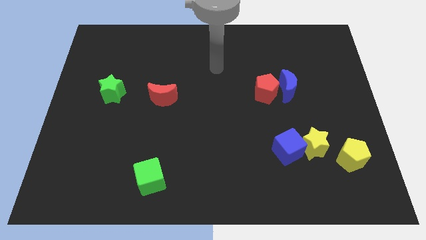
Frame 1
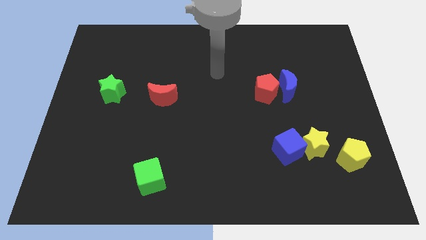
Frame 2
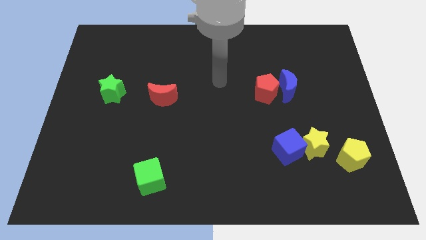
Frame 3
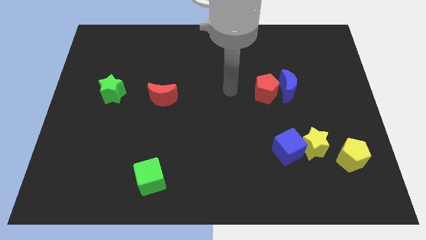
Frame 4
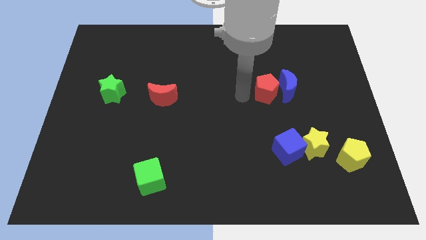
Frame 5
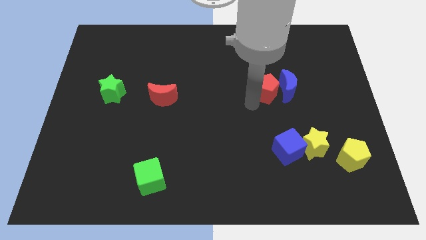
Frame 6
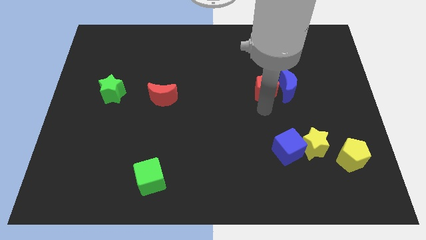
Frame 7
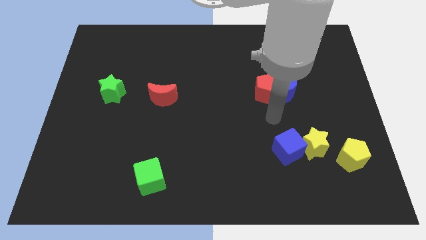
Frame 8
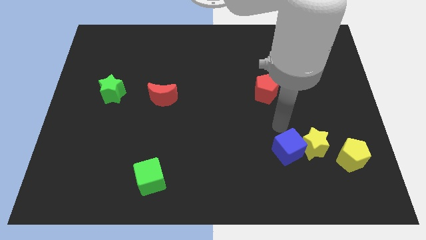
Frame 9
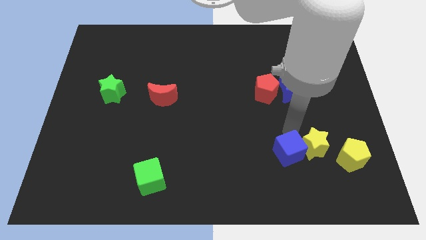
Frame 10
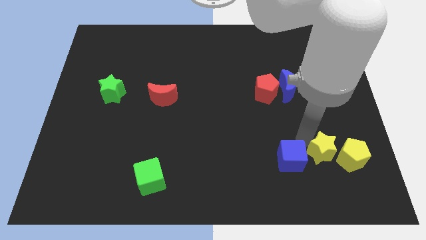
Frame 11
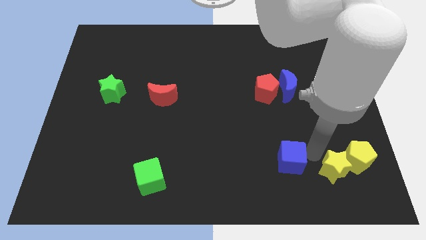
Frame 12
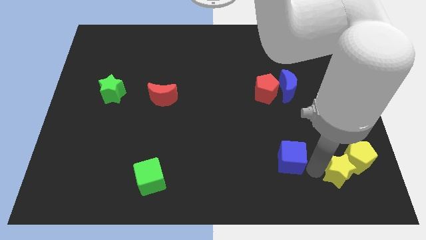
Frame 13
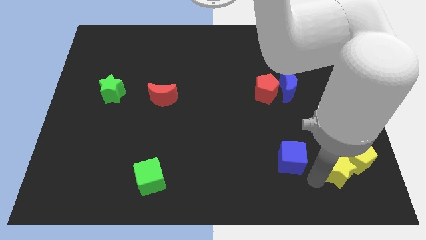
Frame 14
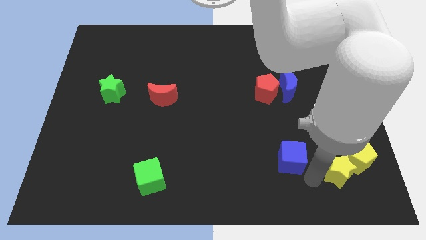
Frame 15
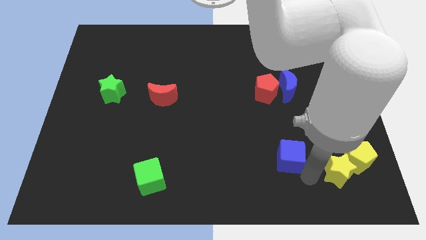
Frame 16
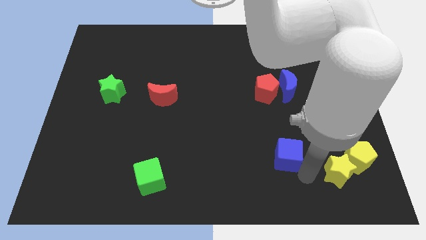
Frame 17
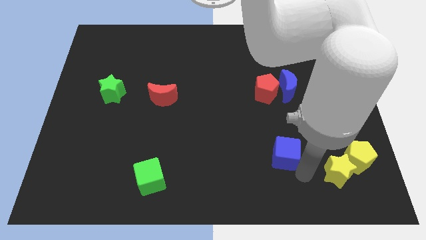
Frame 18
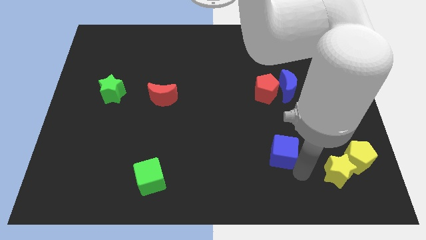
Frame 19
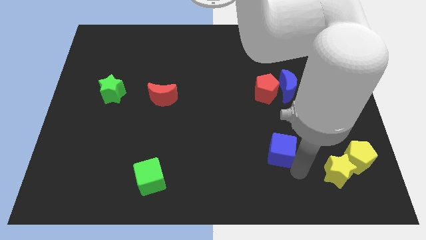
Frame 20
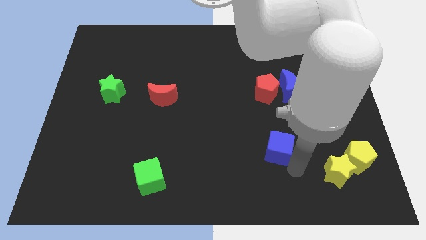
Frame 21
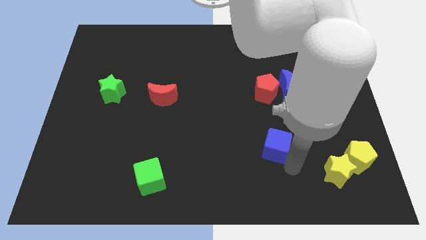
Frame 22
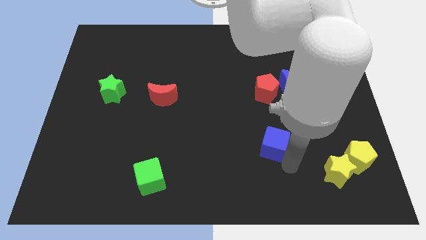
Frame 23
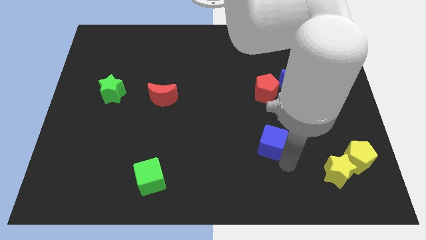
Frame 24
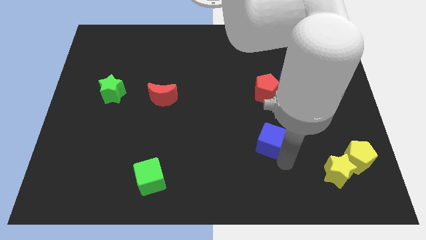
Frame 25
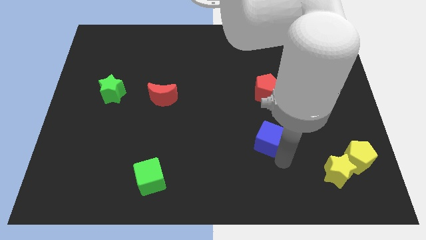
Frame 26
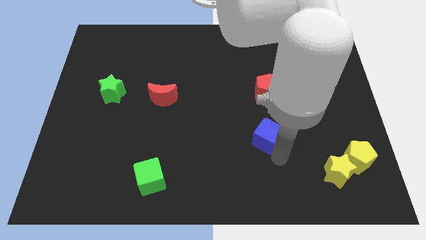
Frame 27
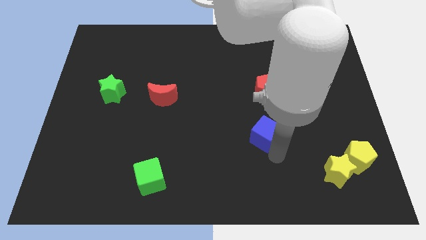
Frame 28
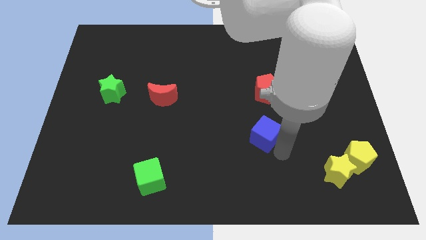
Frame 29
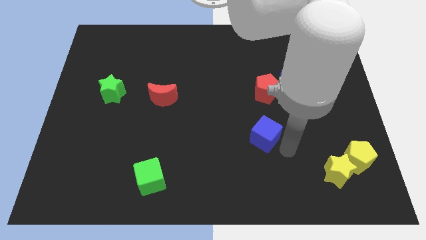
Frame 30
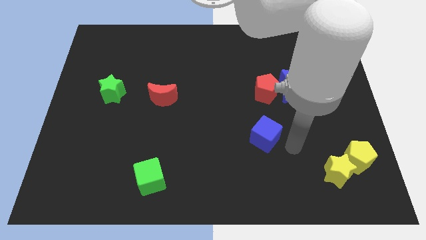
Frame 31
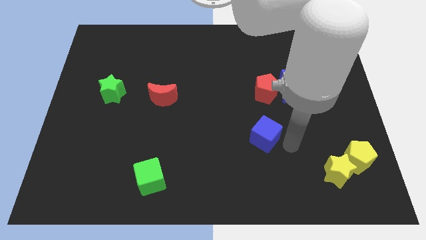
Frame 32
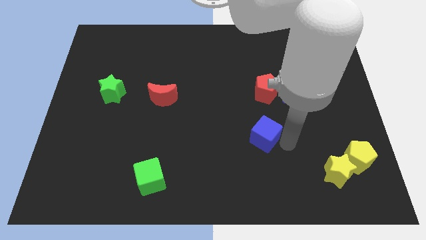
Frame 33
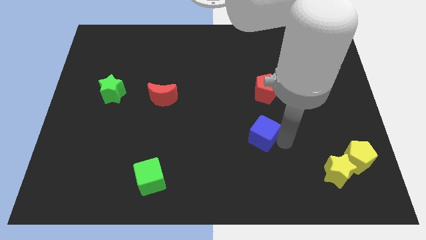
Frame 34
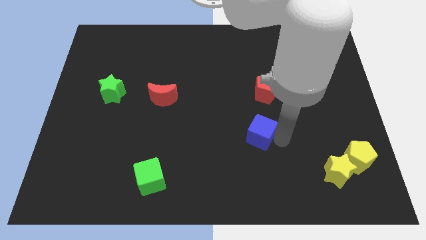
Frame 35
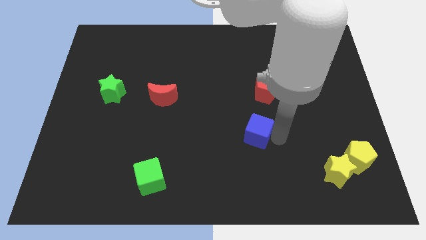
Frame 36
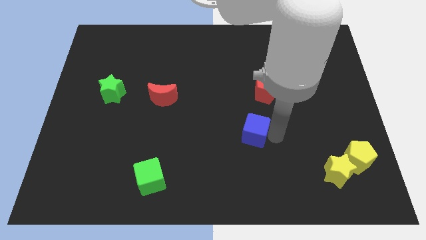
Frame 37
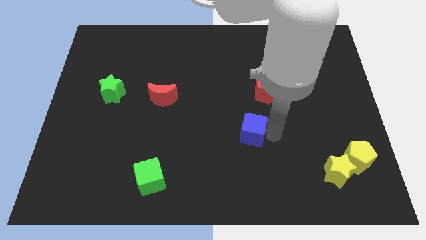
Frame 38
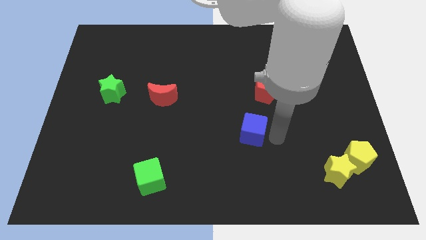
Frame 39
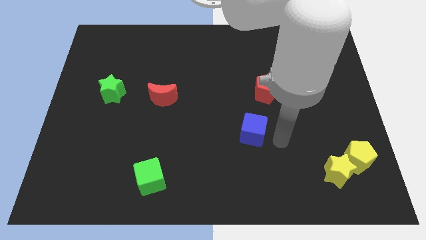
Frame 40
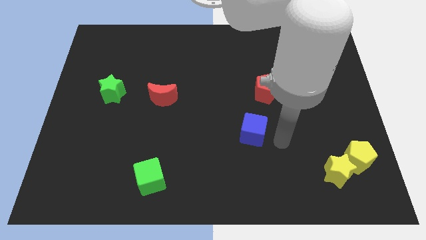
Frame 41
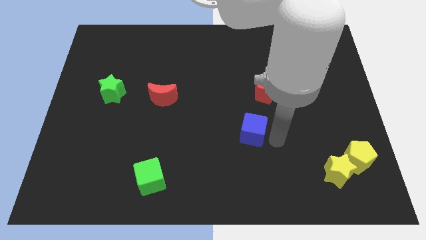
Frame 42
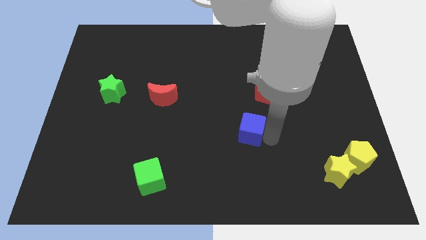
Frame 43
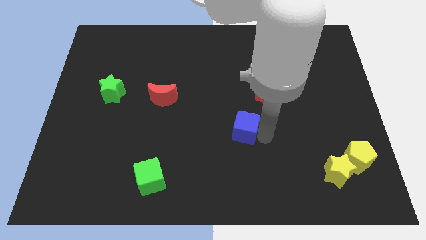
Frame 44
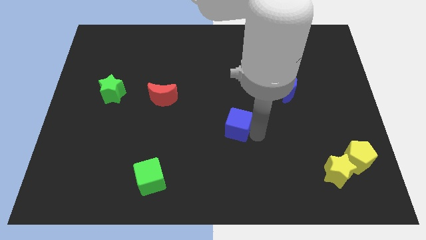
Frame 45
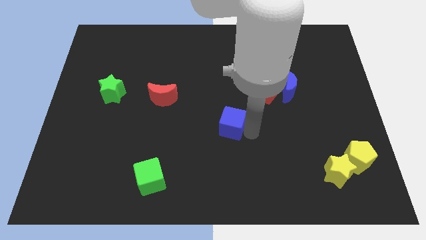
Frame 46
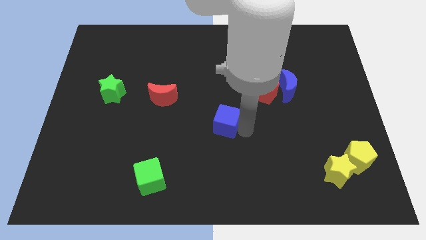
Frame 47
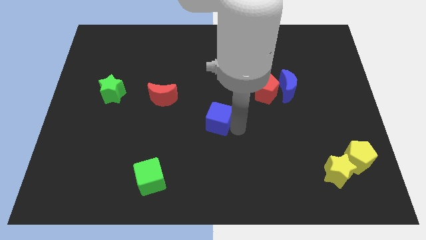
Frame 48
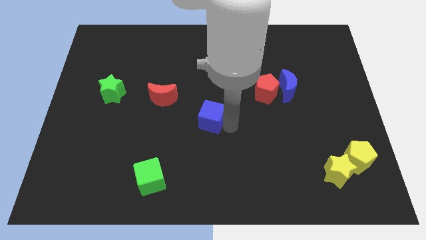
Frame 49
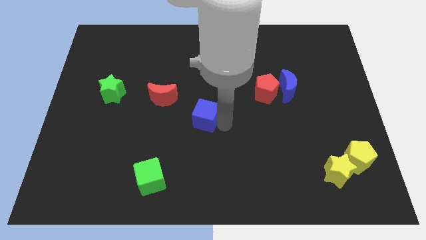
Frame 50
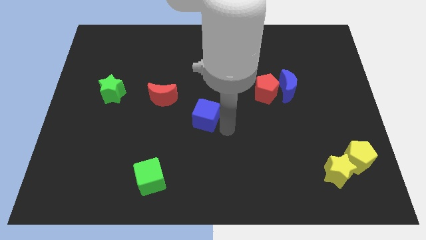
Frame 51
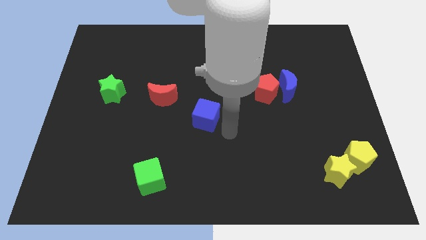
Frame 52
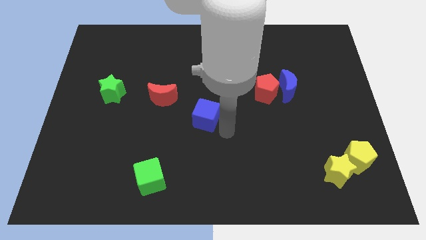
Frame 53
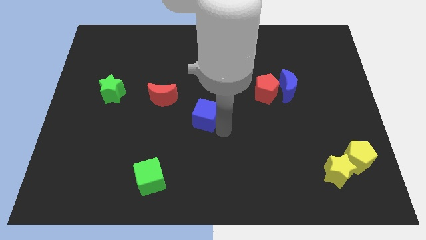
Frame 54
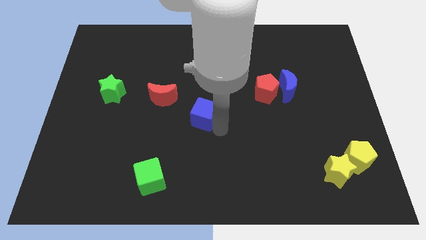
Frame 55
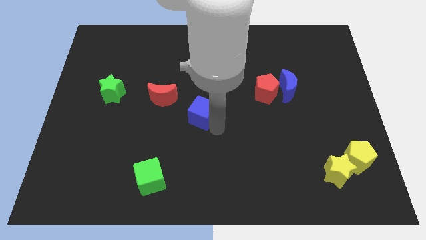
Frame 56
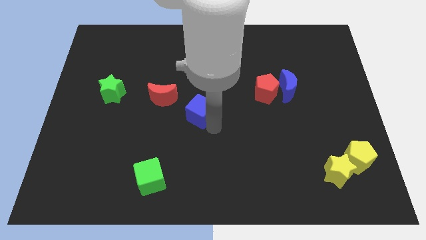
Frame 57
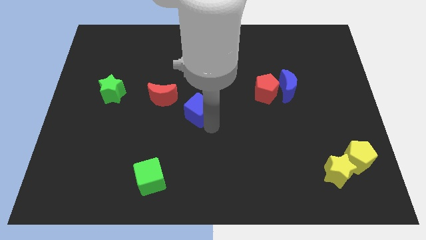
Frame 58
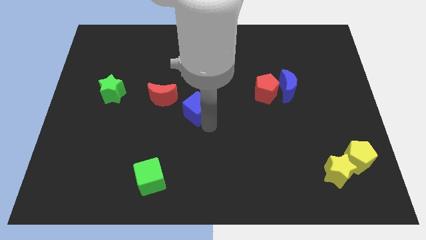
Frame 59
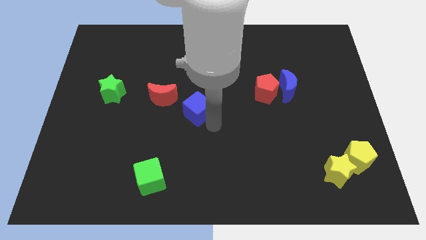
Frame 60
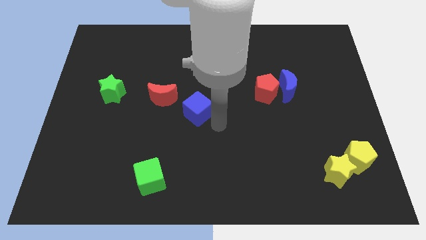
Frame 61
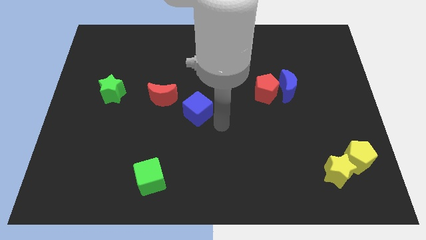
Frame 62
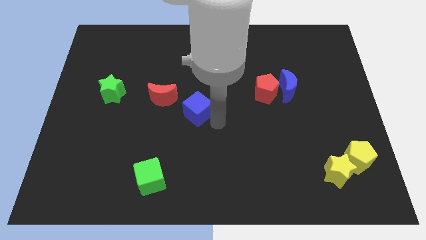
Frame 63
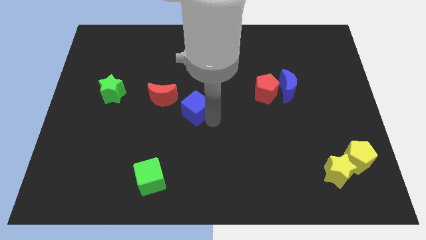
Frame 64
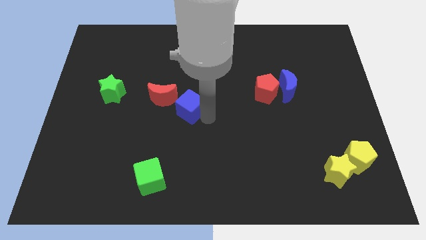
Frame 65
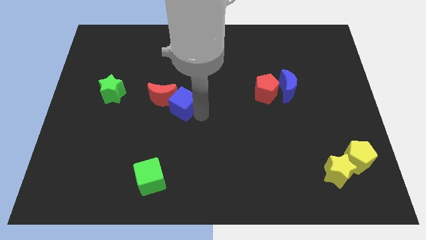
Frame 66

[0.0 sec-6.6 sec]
put the blue cube next to the red moon
